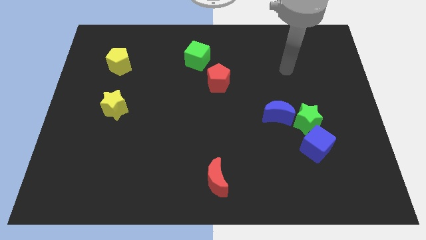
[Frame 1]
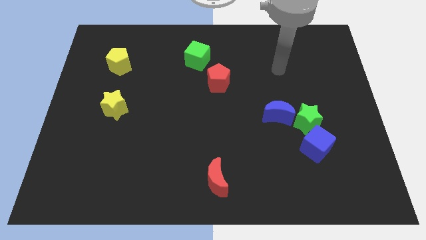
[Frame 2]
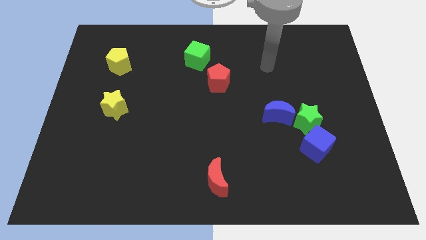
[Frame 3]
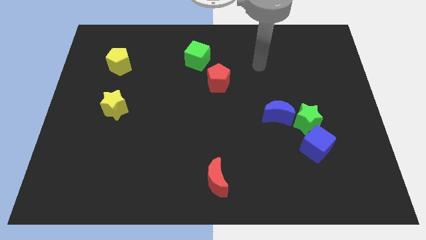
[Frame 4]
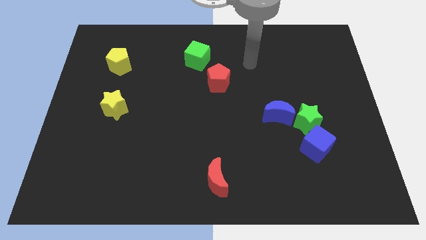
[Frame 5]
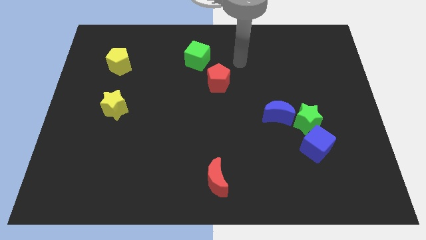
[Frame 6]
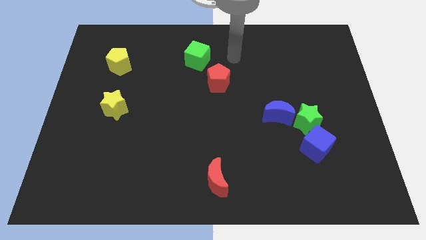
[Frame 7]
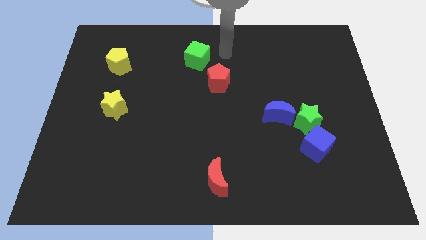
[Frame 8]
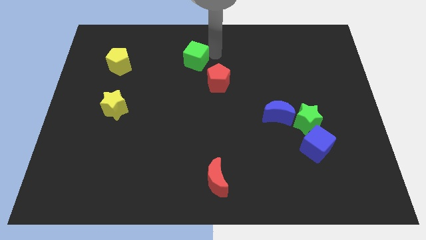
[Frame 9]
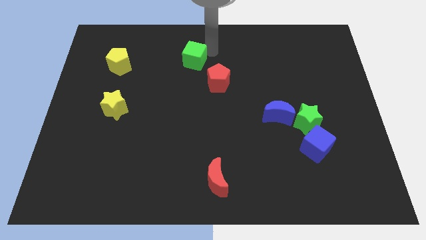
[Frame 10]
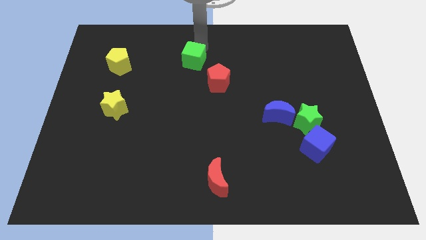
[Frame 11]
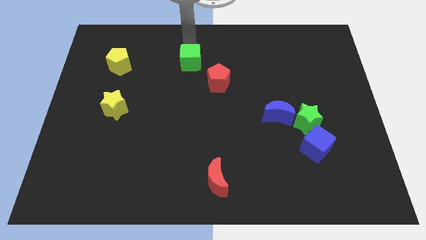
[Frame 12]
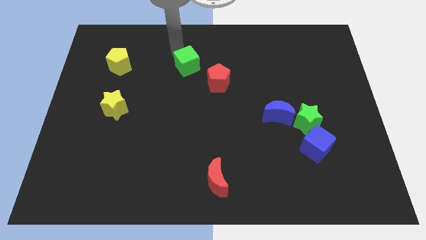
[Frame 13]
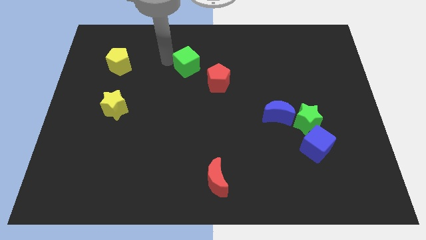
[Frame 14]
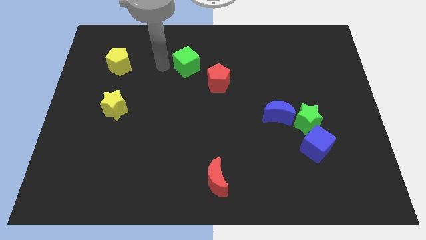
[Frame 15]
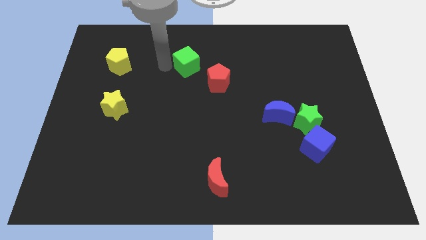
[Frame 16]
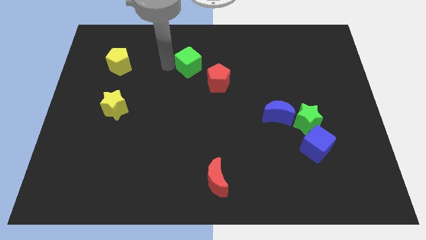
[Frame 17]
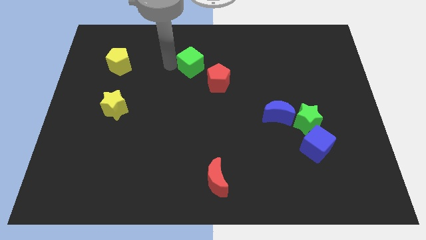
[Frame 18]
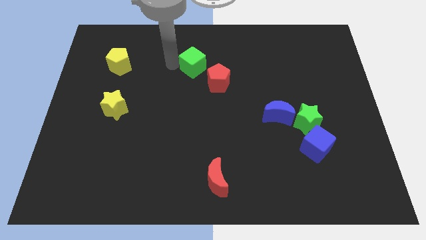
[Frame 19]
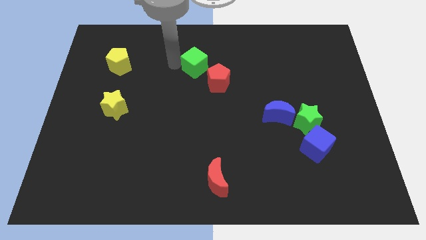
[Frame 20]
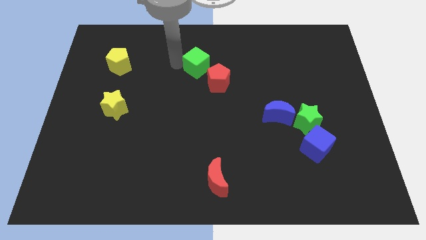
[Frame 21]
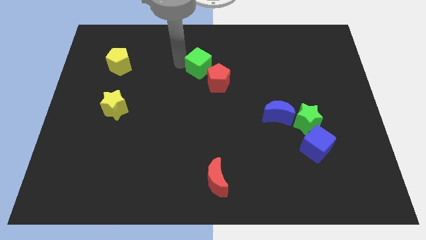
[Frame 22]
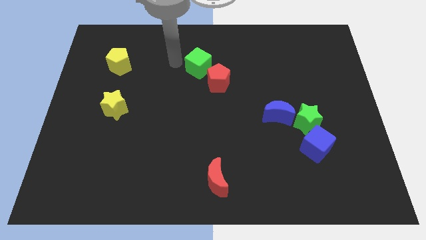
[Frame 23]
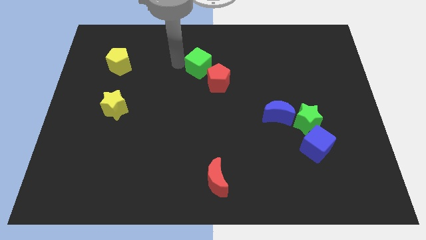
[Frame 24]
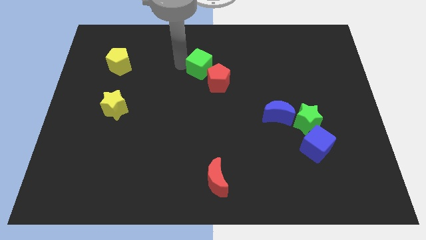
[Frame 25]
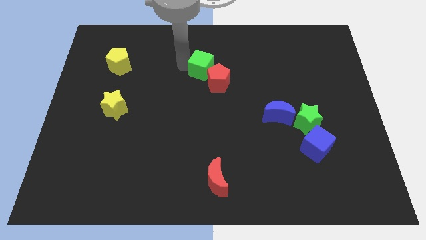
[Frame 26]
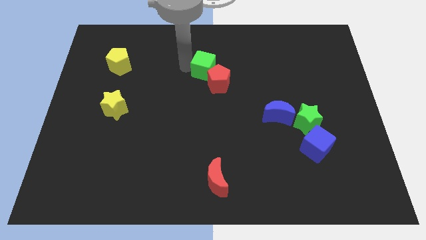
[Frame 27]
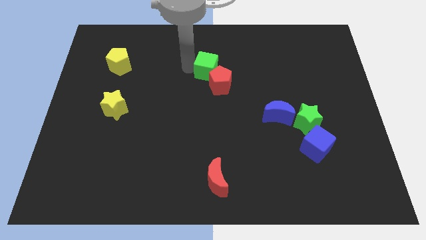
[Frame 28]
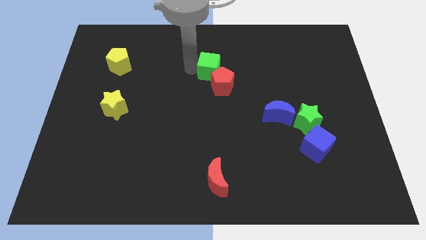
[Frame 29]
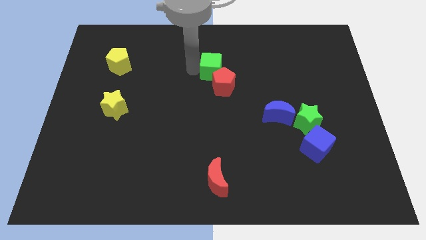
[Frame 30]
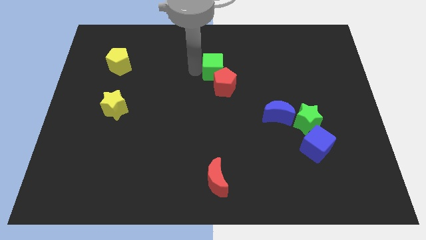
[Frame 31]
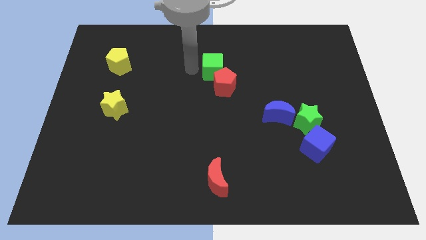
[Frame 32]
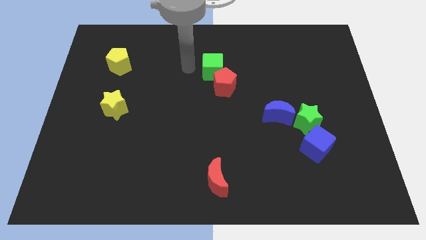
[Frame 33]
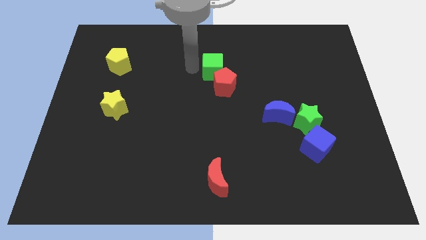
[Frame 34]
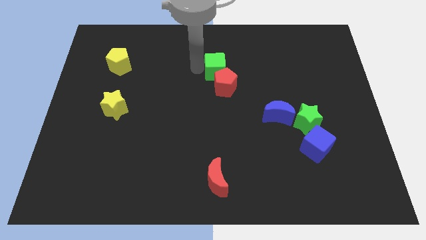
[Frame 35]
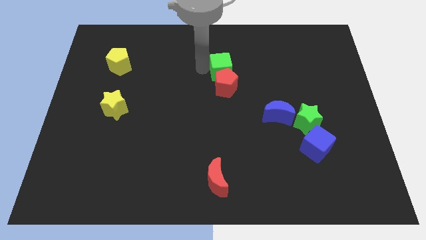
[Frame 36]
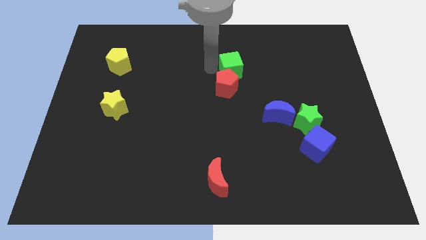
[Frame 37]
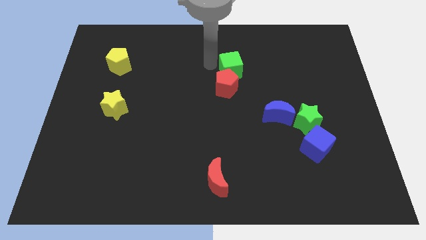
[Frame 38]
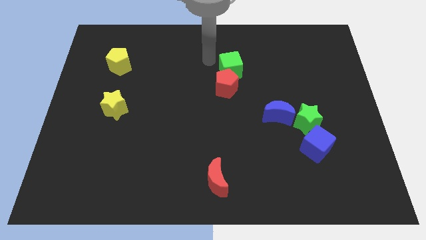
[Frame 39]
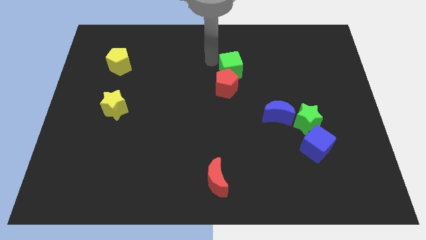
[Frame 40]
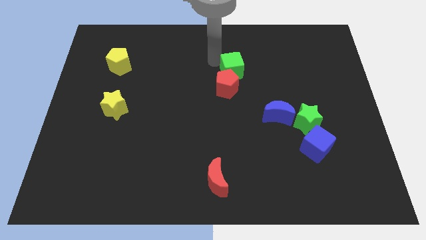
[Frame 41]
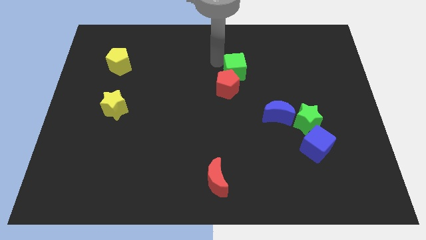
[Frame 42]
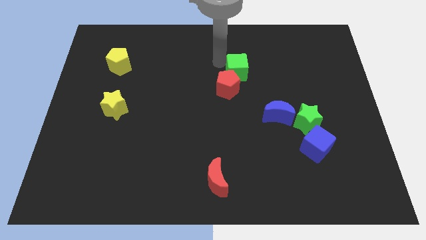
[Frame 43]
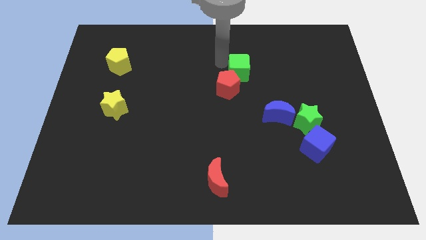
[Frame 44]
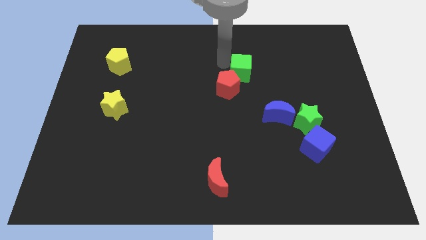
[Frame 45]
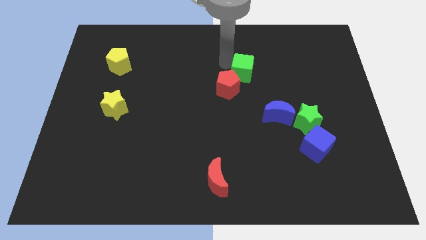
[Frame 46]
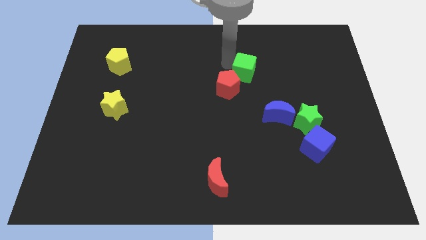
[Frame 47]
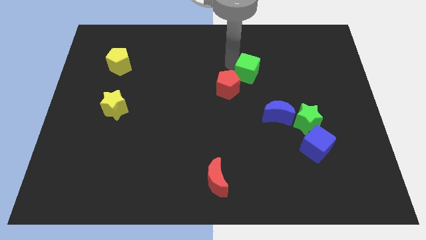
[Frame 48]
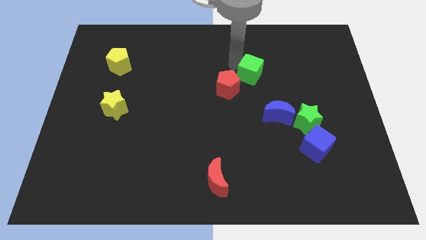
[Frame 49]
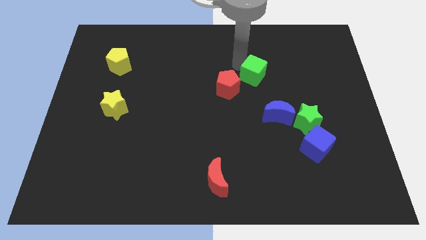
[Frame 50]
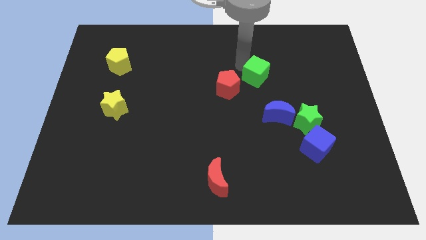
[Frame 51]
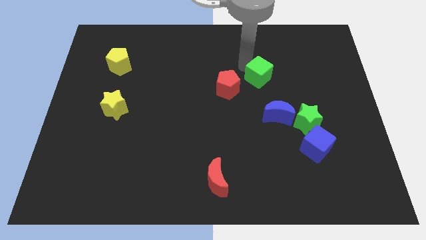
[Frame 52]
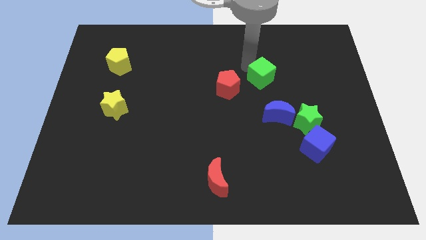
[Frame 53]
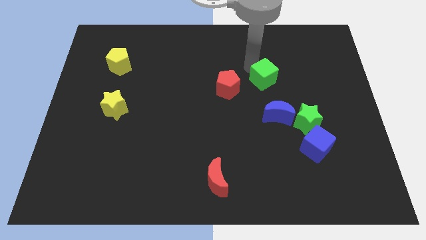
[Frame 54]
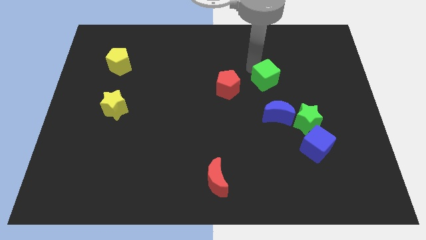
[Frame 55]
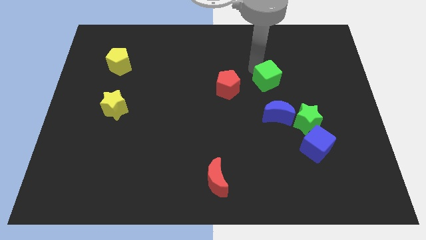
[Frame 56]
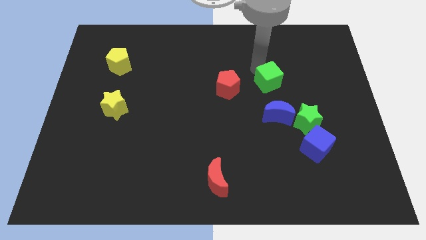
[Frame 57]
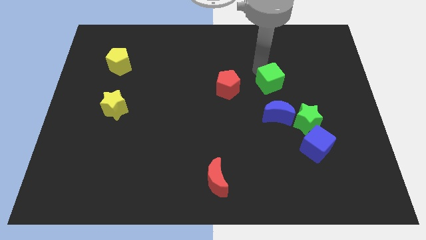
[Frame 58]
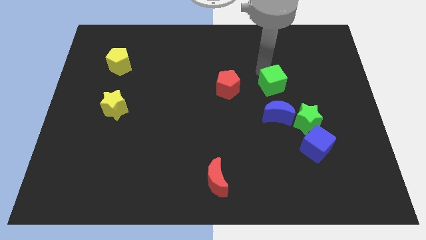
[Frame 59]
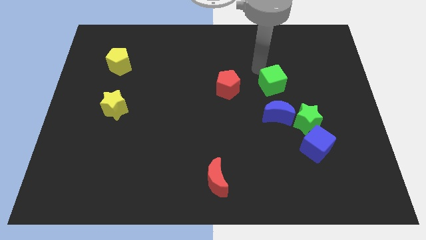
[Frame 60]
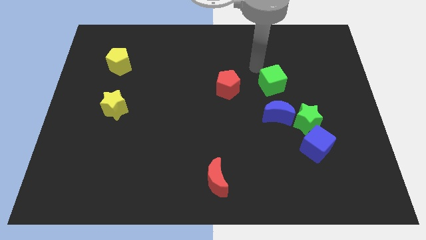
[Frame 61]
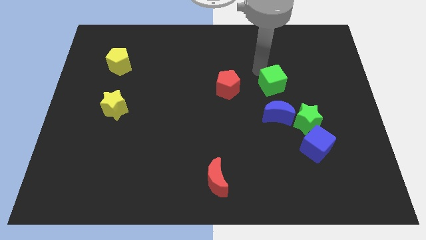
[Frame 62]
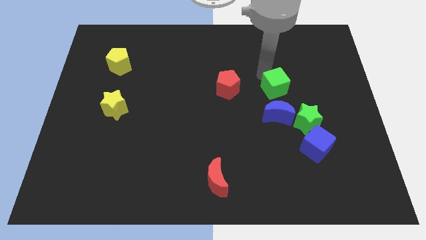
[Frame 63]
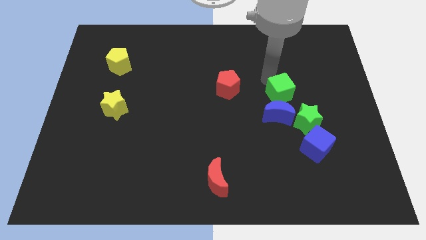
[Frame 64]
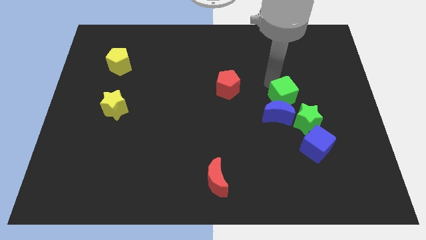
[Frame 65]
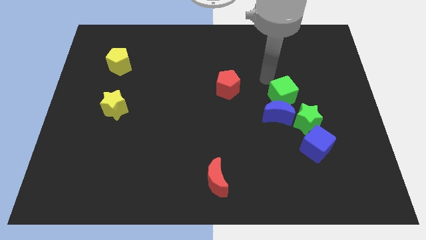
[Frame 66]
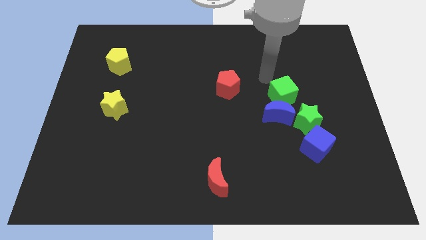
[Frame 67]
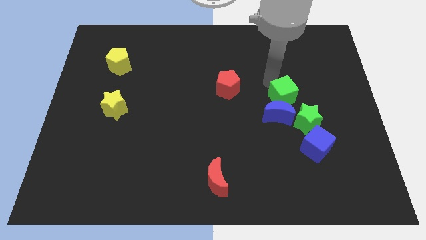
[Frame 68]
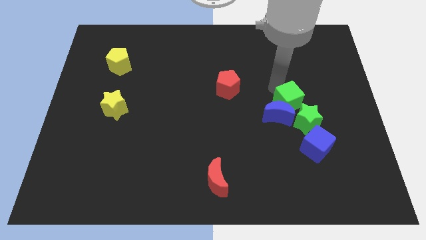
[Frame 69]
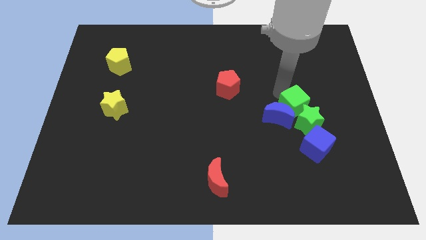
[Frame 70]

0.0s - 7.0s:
put the green cube next to the green star

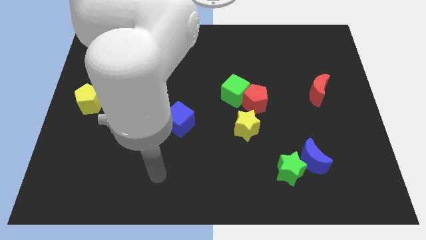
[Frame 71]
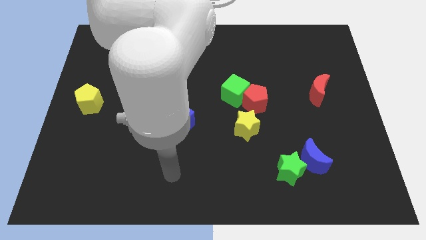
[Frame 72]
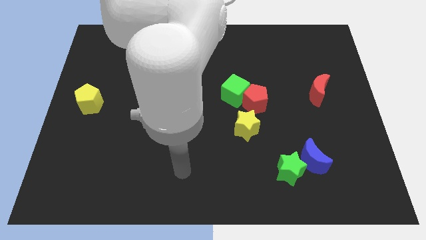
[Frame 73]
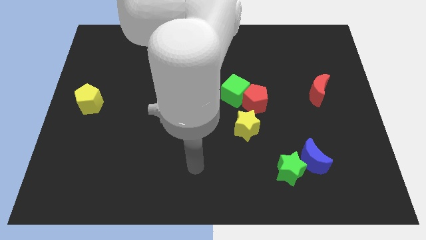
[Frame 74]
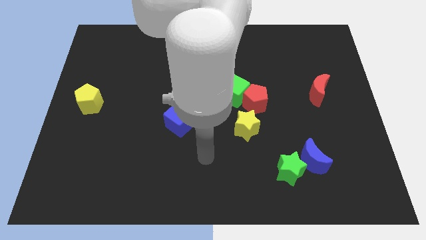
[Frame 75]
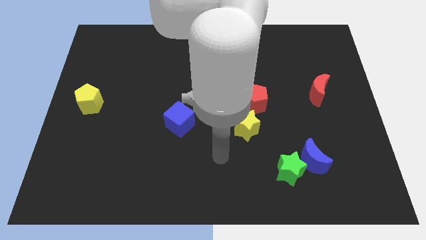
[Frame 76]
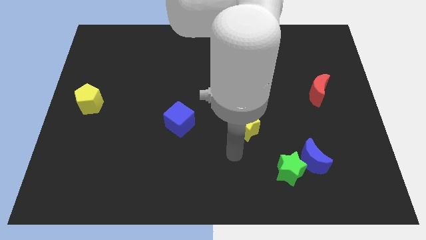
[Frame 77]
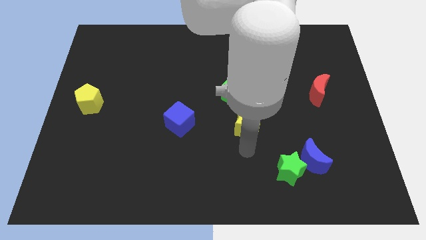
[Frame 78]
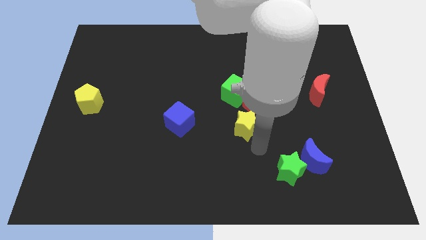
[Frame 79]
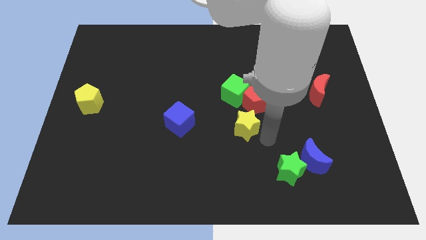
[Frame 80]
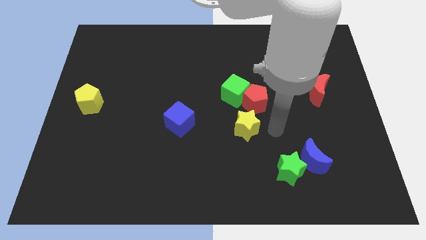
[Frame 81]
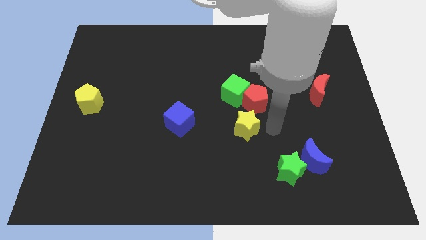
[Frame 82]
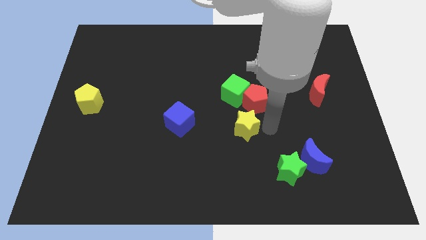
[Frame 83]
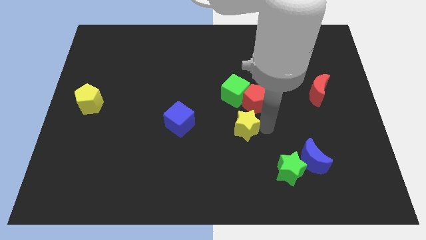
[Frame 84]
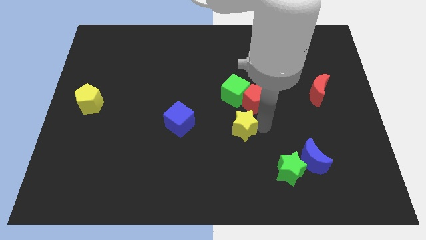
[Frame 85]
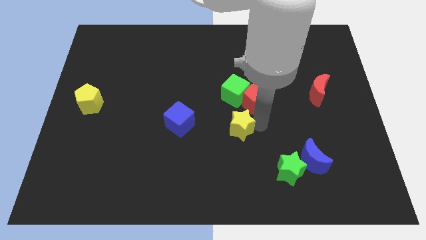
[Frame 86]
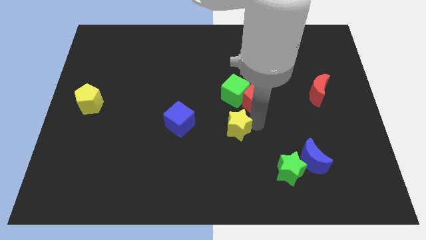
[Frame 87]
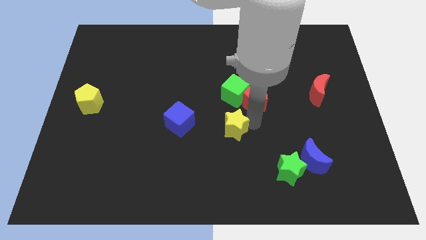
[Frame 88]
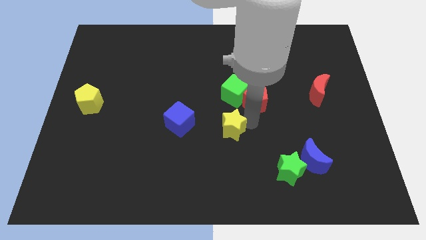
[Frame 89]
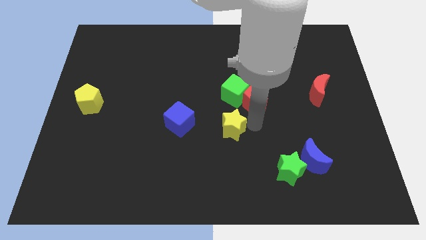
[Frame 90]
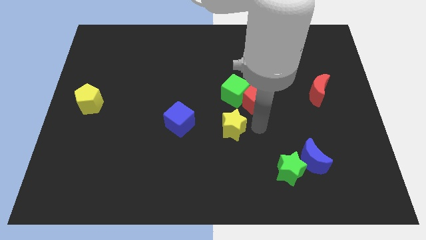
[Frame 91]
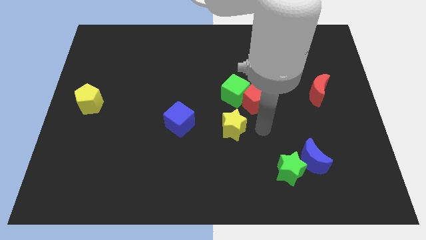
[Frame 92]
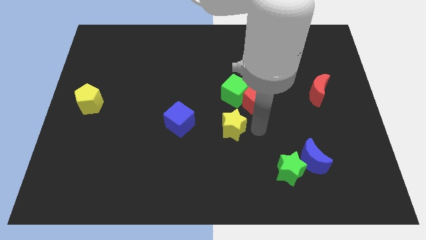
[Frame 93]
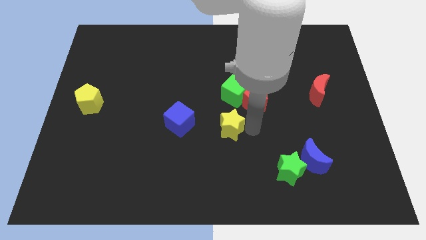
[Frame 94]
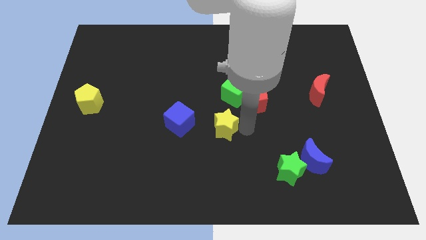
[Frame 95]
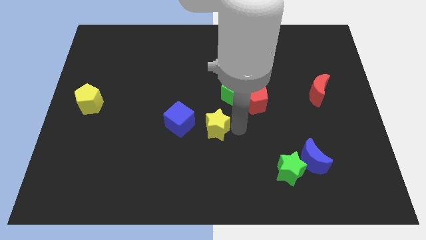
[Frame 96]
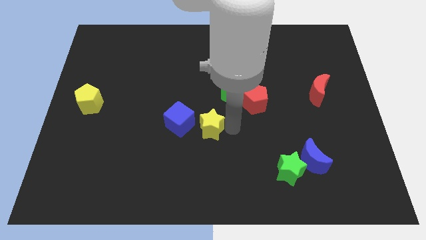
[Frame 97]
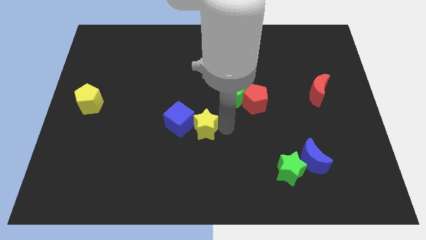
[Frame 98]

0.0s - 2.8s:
push the yellow star towards the blue cube
